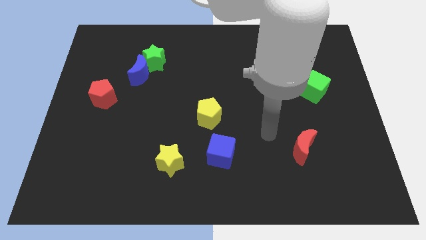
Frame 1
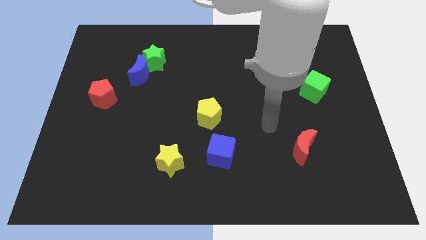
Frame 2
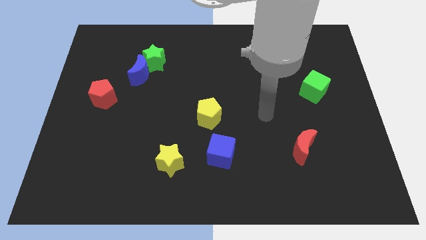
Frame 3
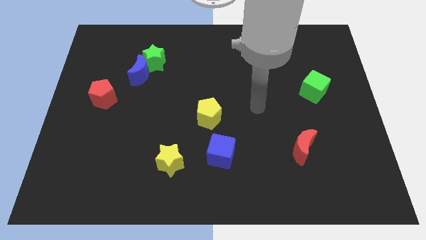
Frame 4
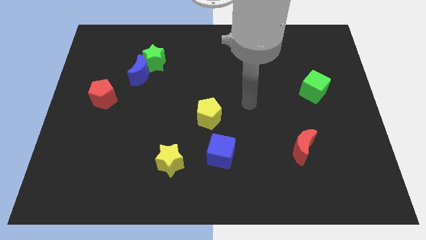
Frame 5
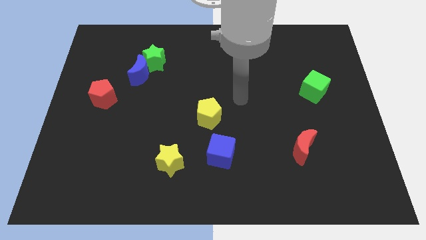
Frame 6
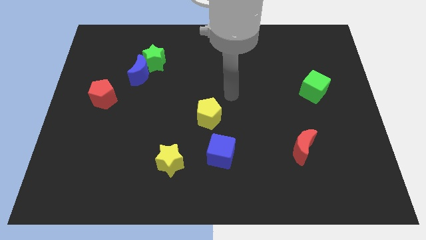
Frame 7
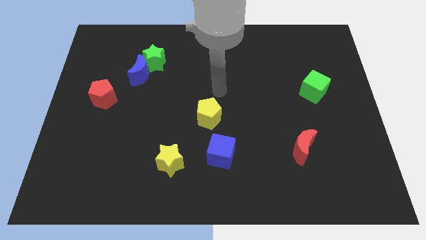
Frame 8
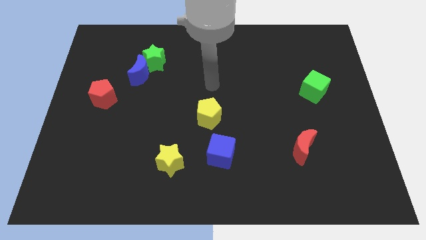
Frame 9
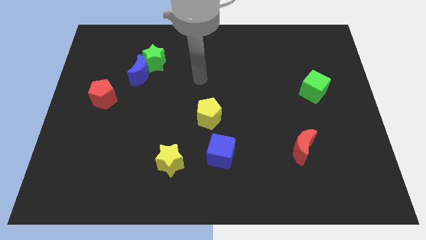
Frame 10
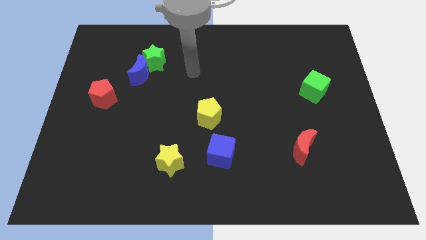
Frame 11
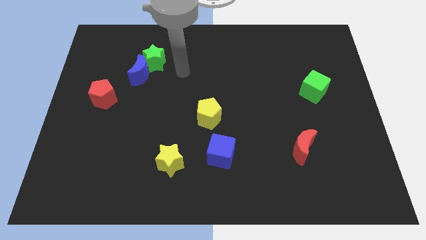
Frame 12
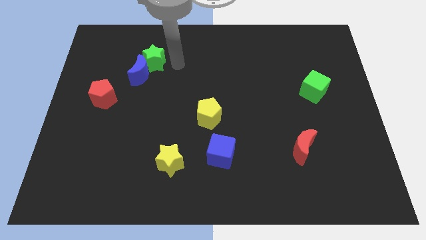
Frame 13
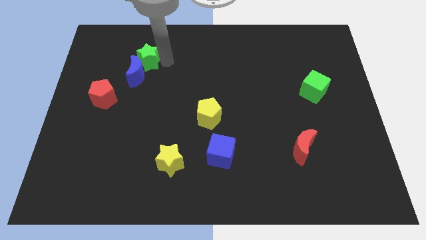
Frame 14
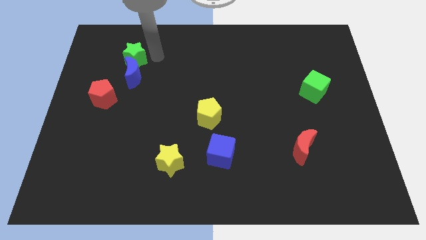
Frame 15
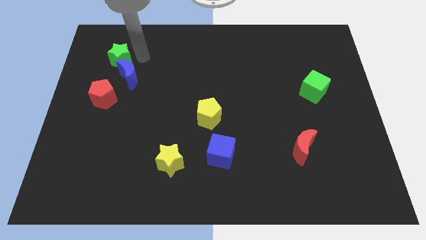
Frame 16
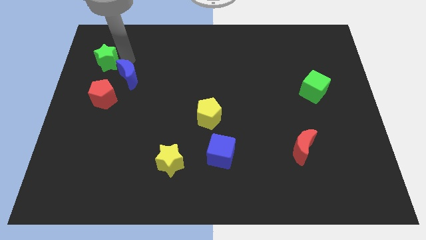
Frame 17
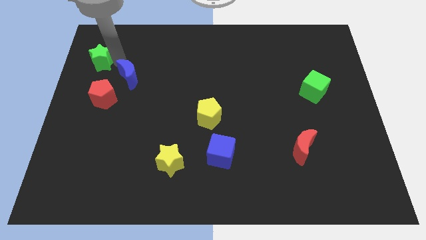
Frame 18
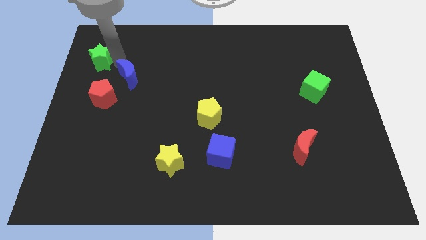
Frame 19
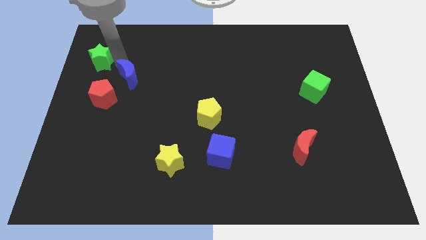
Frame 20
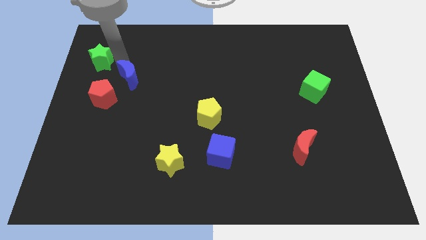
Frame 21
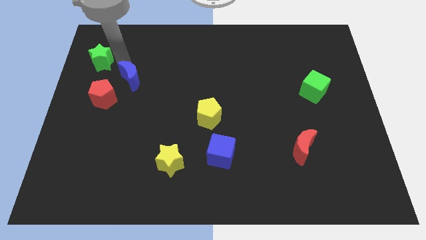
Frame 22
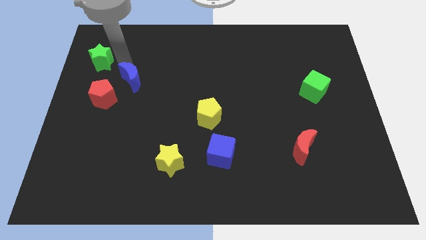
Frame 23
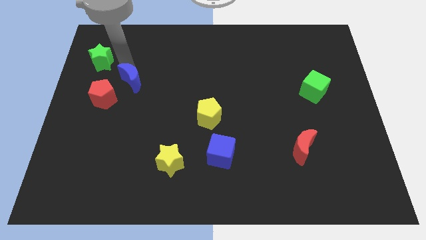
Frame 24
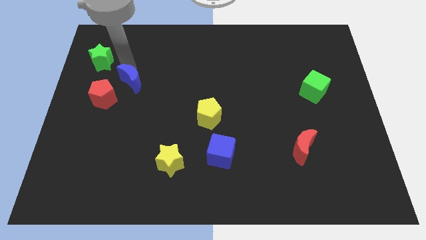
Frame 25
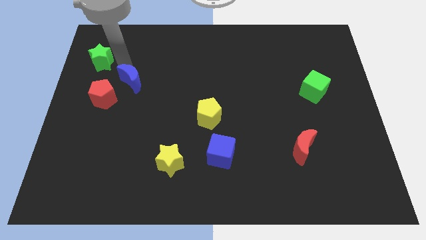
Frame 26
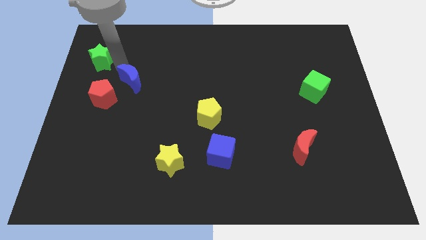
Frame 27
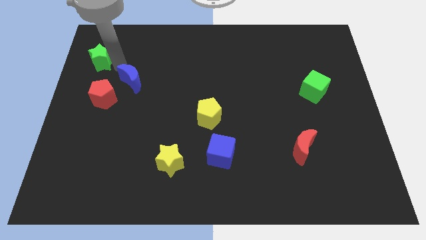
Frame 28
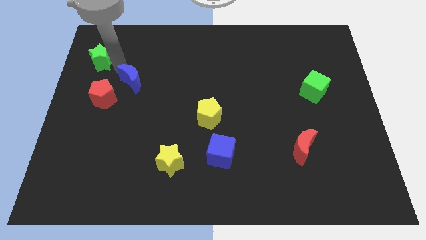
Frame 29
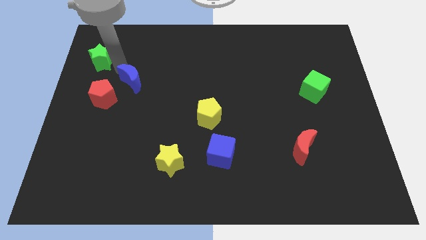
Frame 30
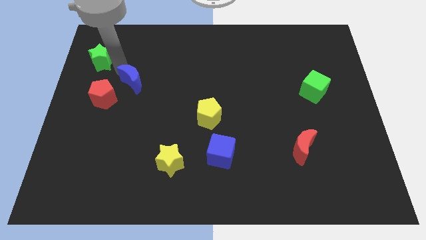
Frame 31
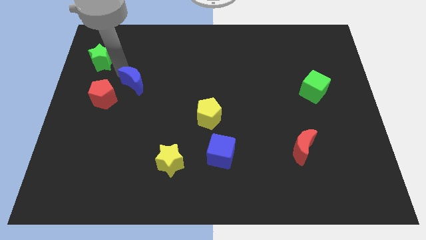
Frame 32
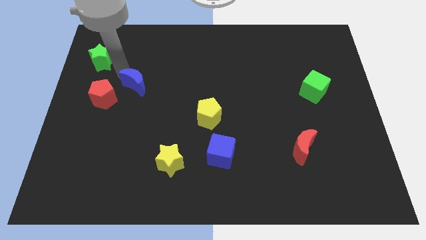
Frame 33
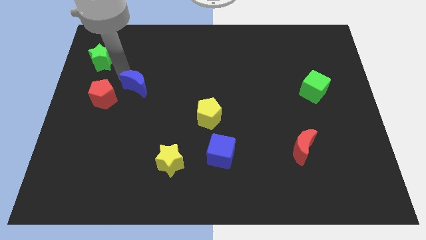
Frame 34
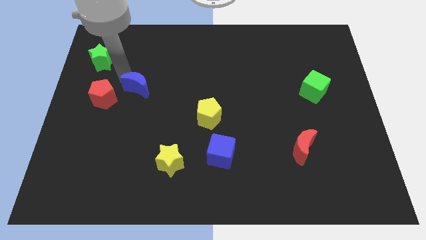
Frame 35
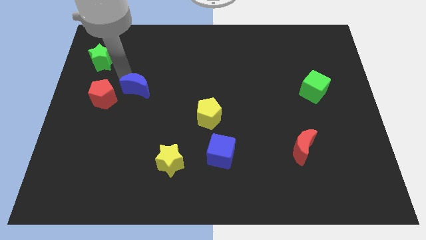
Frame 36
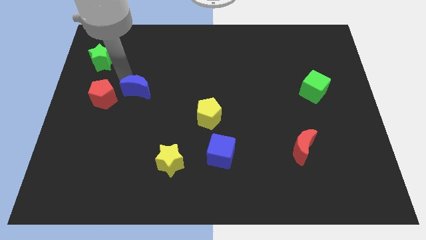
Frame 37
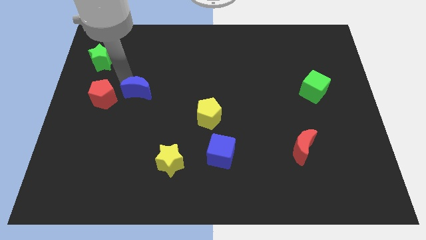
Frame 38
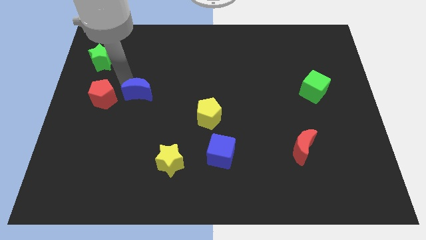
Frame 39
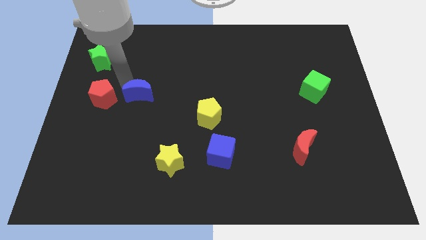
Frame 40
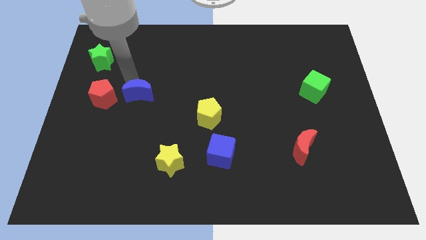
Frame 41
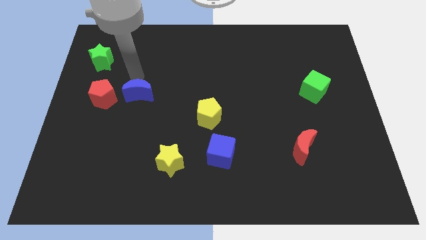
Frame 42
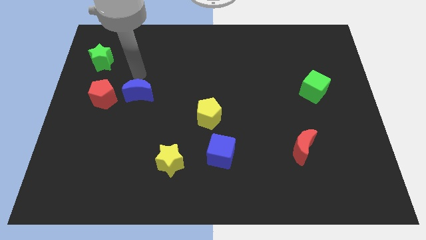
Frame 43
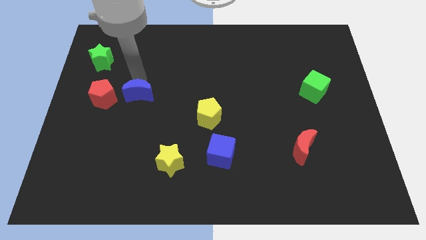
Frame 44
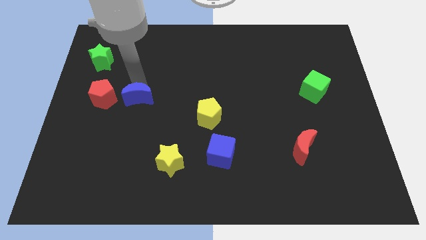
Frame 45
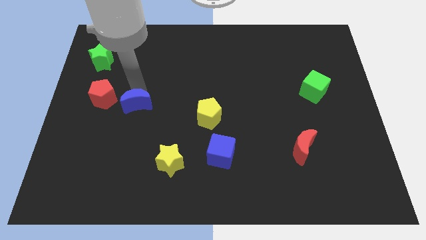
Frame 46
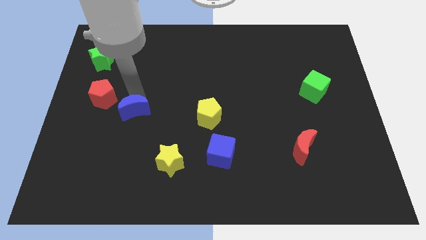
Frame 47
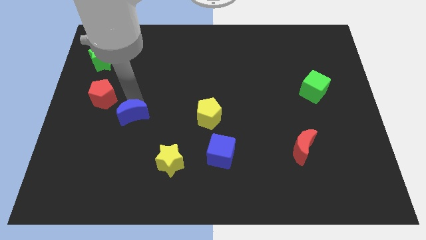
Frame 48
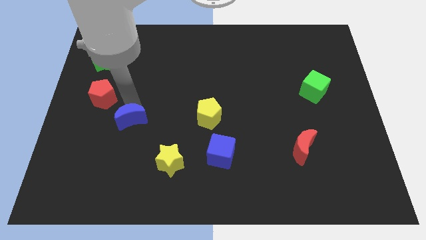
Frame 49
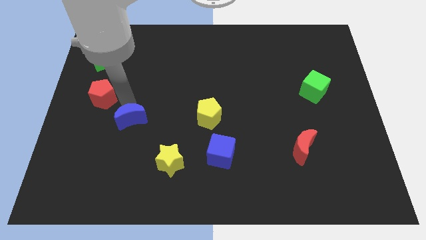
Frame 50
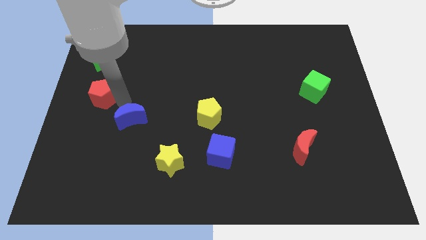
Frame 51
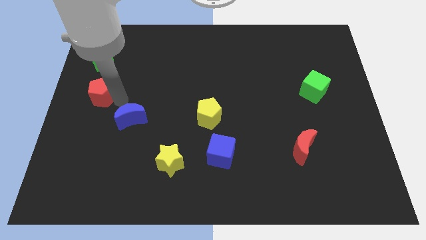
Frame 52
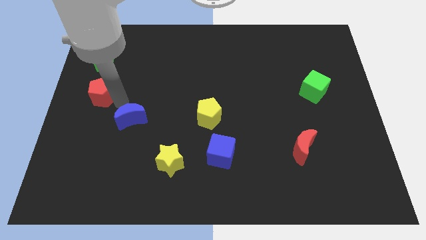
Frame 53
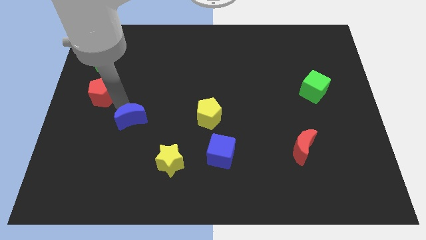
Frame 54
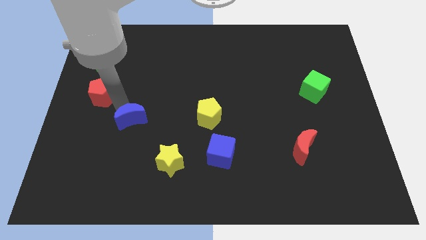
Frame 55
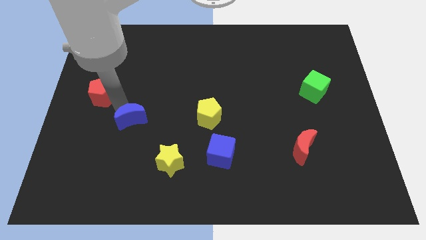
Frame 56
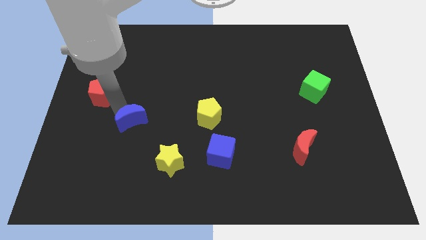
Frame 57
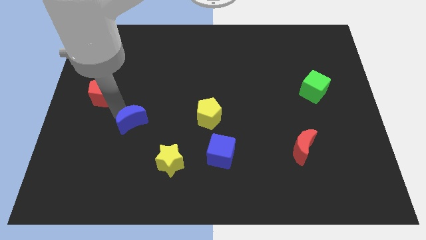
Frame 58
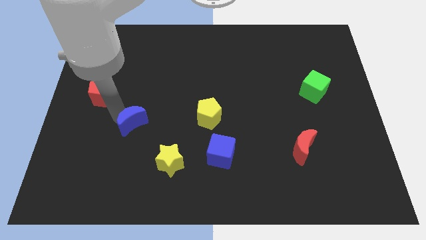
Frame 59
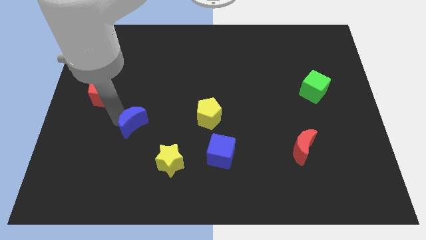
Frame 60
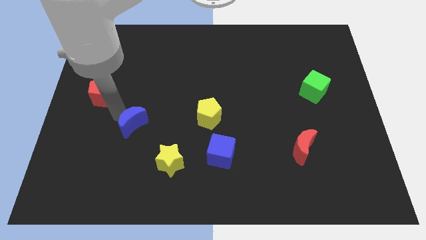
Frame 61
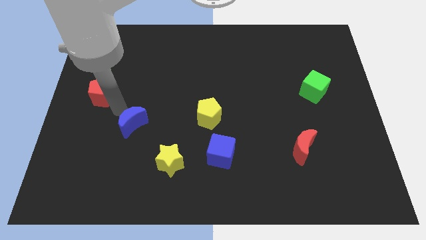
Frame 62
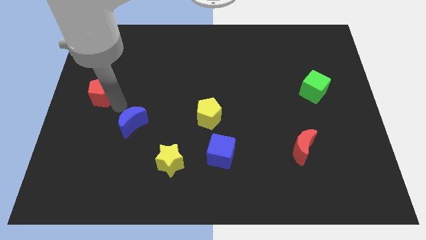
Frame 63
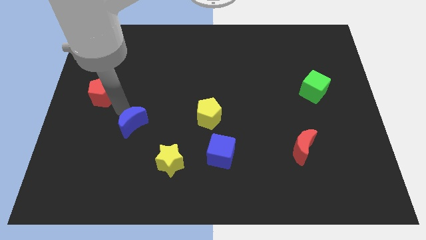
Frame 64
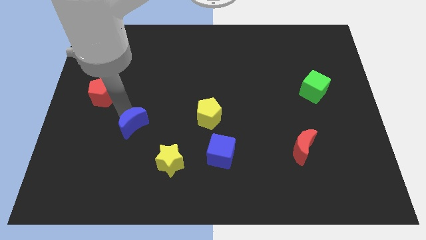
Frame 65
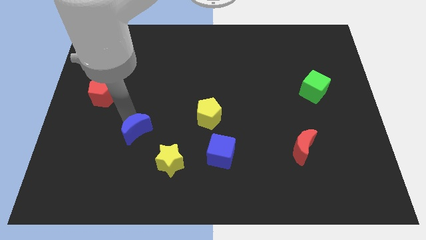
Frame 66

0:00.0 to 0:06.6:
push the blue moon to the top left side of the yellow star

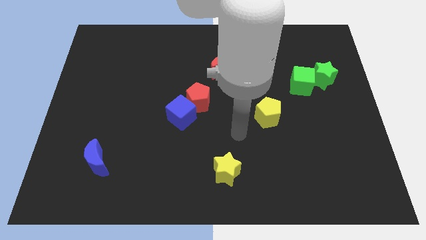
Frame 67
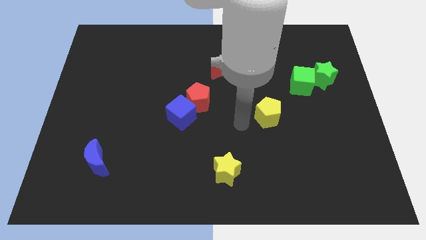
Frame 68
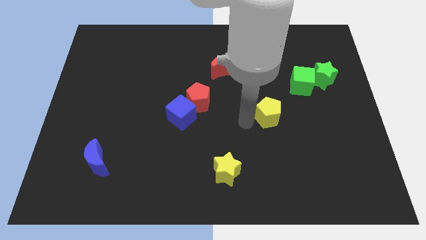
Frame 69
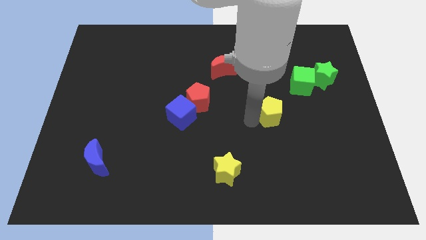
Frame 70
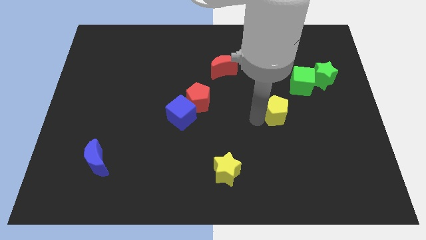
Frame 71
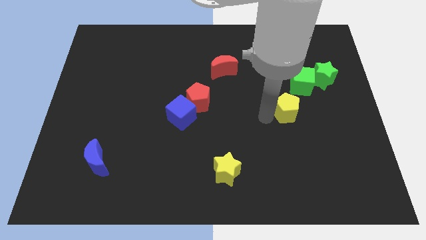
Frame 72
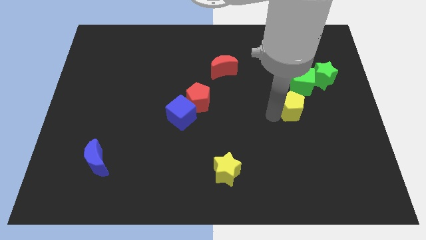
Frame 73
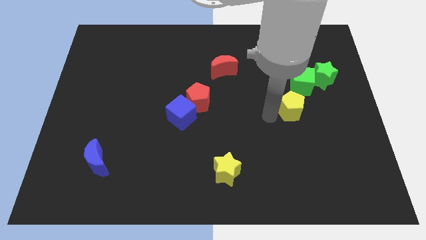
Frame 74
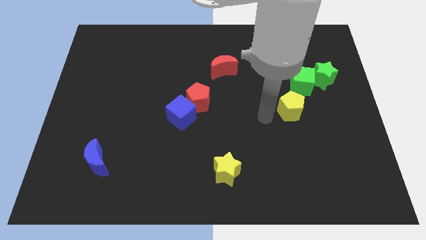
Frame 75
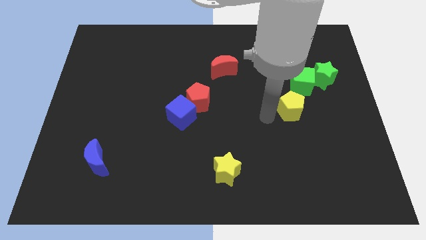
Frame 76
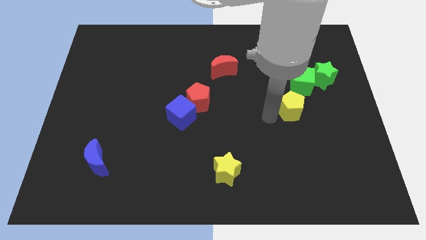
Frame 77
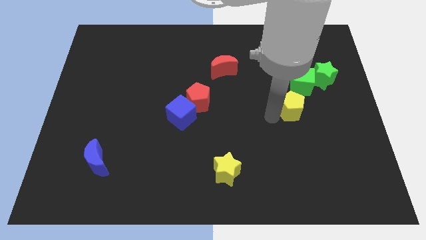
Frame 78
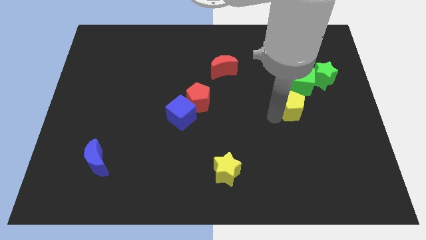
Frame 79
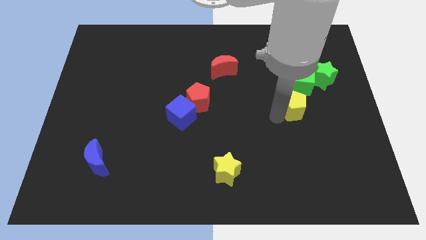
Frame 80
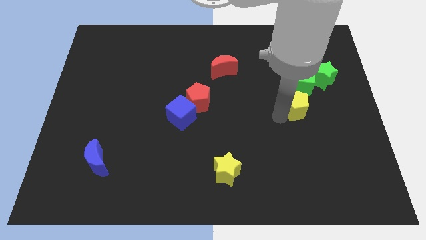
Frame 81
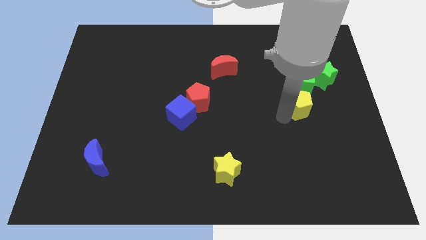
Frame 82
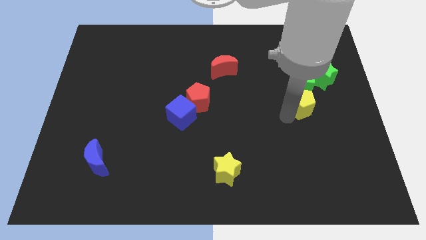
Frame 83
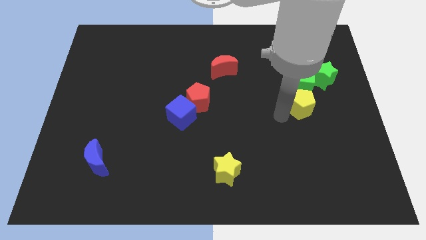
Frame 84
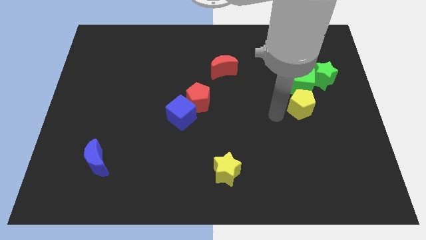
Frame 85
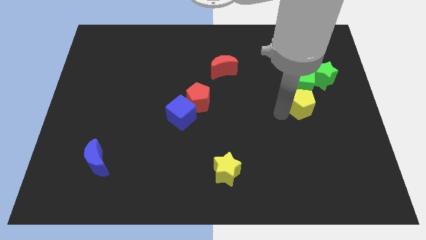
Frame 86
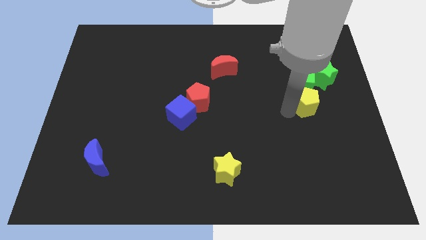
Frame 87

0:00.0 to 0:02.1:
slide the yellow pentagon to the bottom right of the green cube
